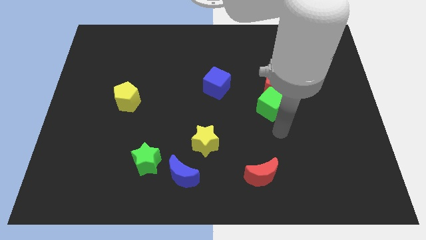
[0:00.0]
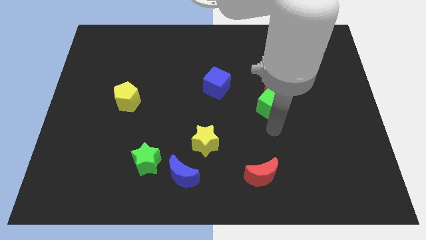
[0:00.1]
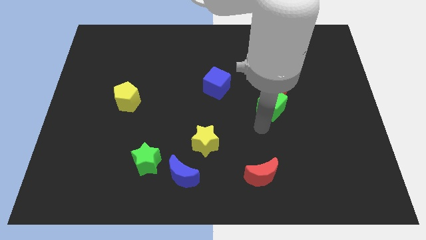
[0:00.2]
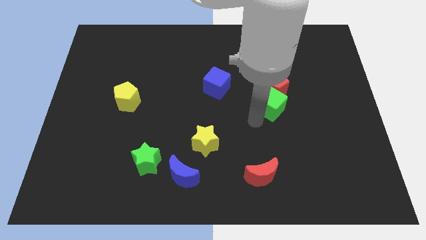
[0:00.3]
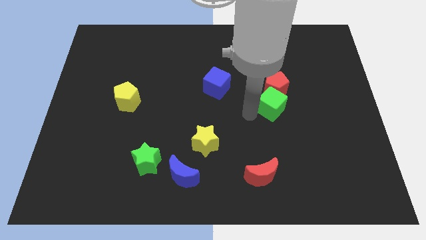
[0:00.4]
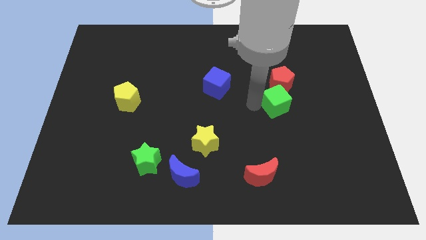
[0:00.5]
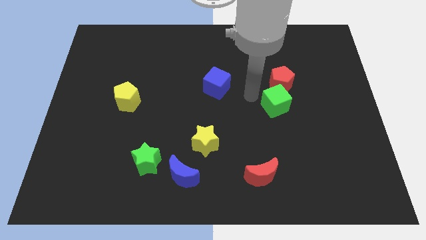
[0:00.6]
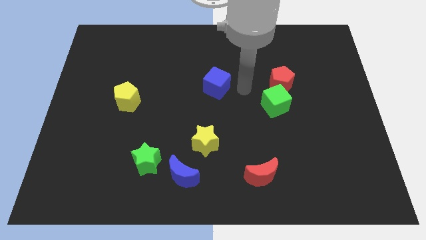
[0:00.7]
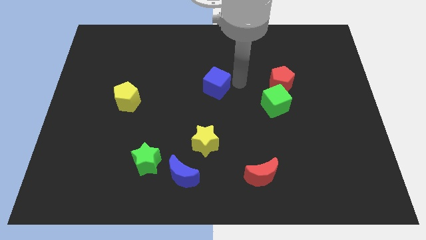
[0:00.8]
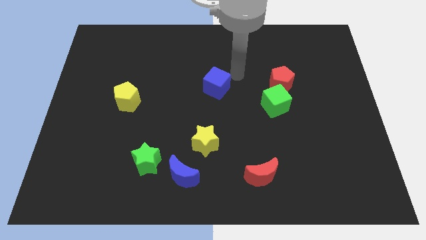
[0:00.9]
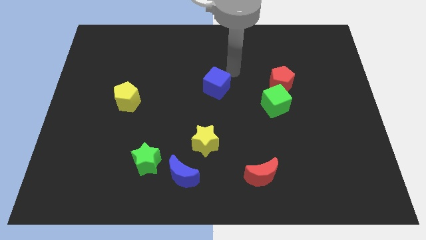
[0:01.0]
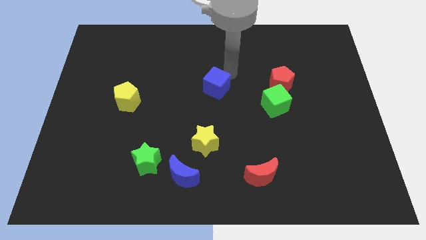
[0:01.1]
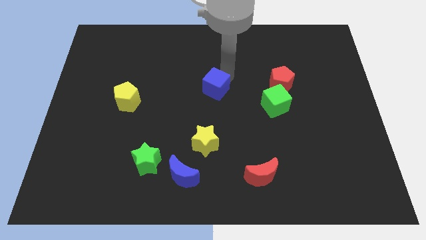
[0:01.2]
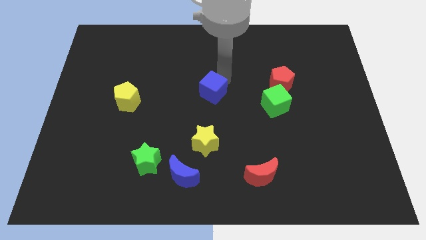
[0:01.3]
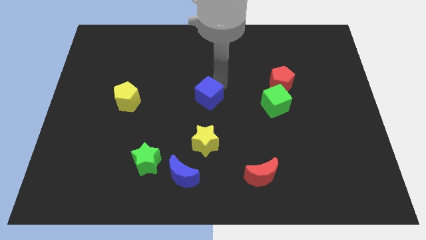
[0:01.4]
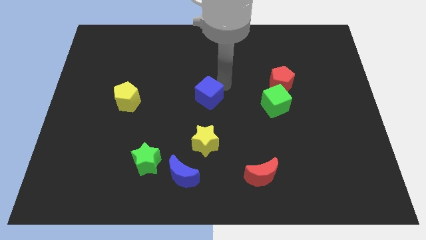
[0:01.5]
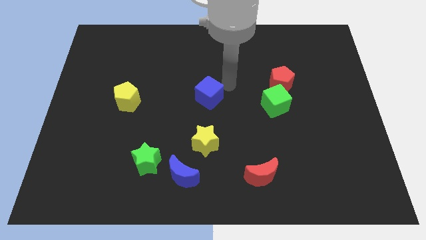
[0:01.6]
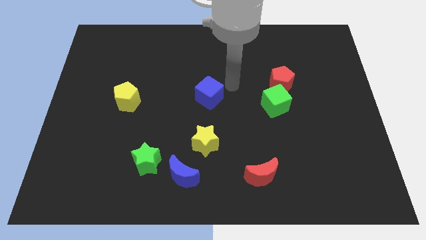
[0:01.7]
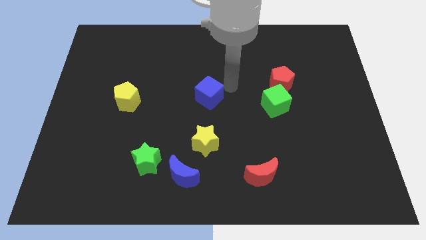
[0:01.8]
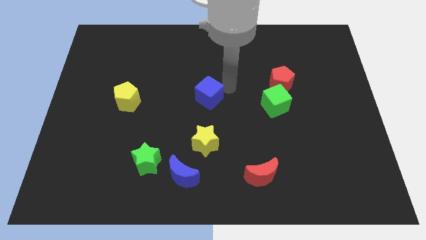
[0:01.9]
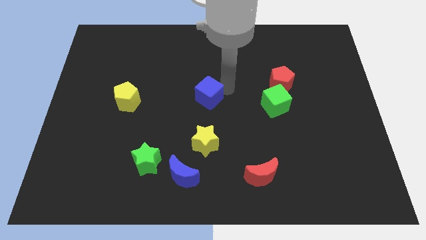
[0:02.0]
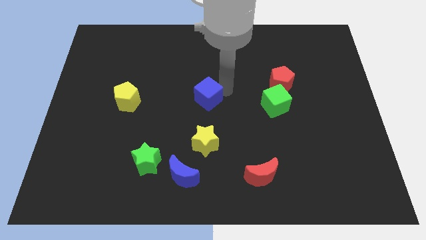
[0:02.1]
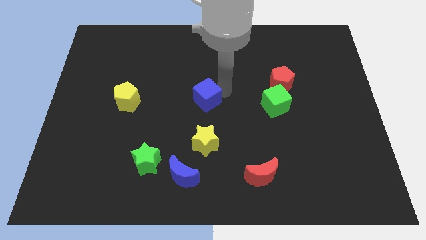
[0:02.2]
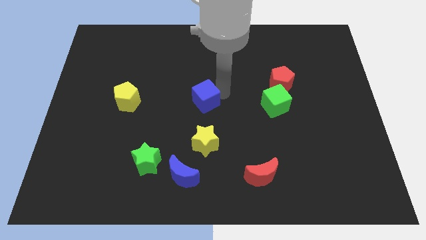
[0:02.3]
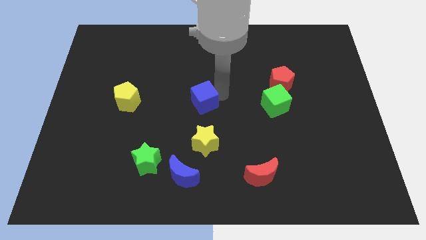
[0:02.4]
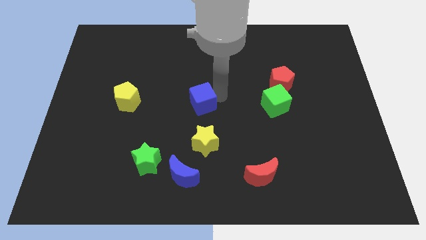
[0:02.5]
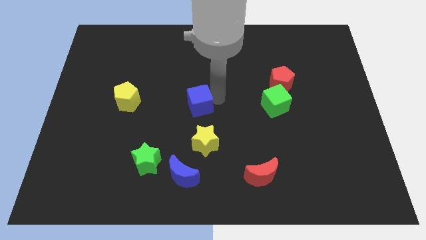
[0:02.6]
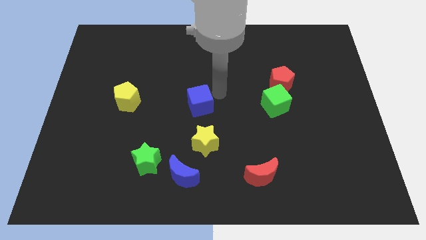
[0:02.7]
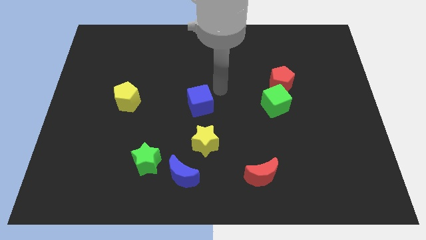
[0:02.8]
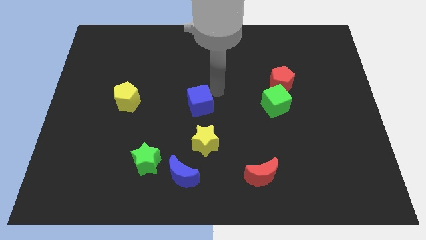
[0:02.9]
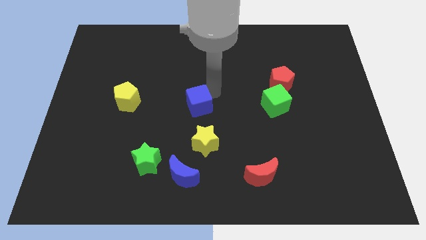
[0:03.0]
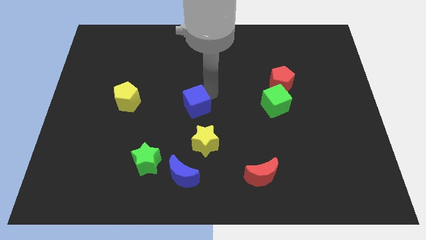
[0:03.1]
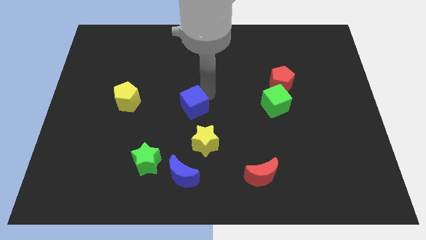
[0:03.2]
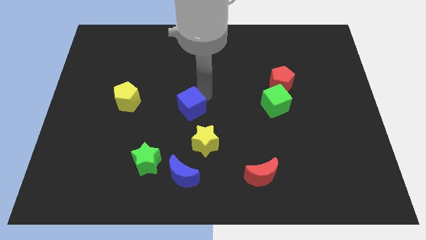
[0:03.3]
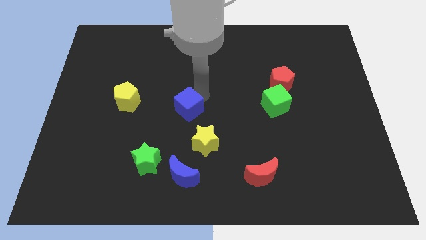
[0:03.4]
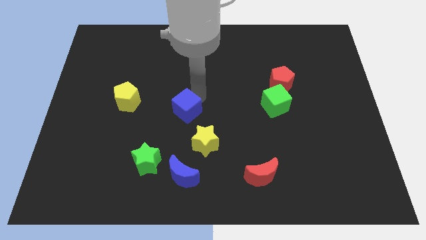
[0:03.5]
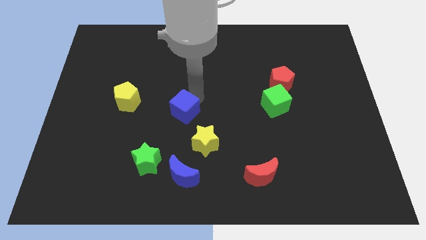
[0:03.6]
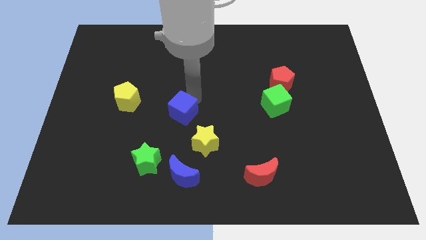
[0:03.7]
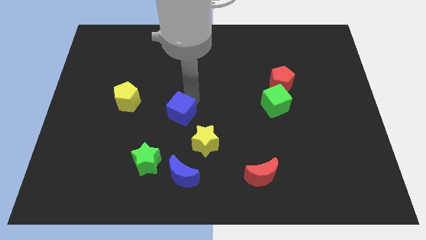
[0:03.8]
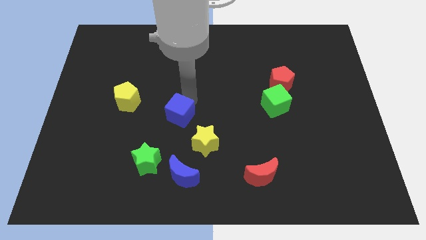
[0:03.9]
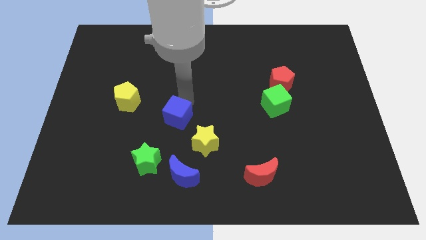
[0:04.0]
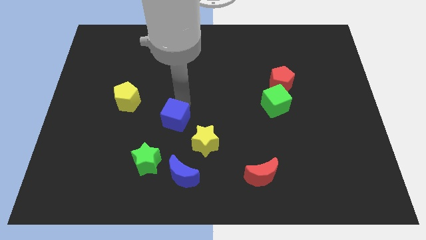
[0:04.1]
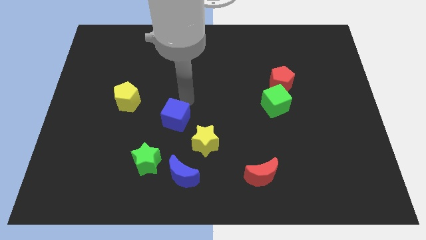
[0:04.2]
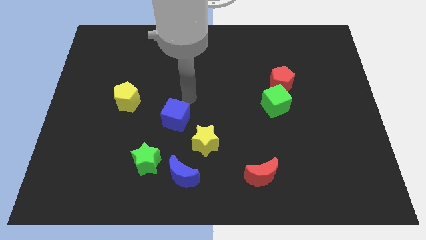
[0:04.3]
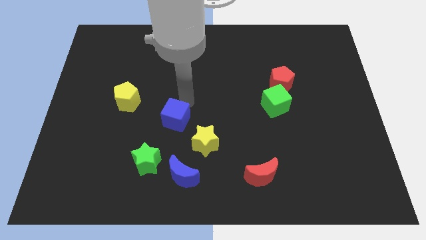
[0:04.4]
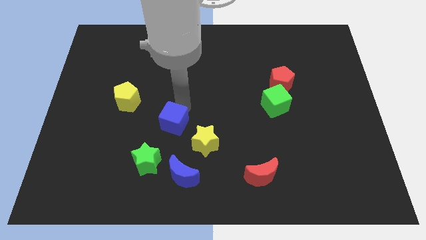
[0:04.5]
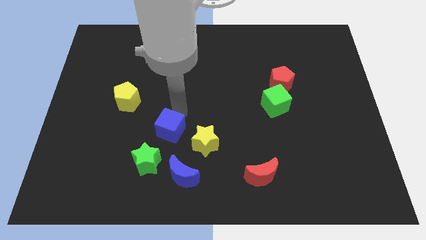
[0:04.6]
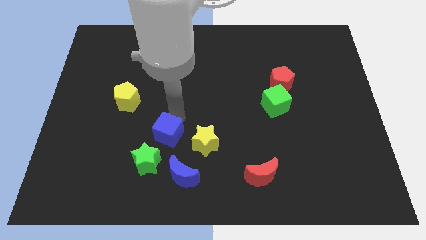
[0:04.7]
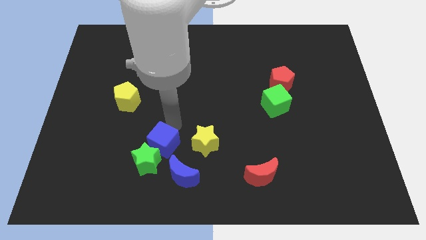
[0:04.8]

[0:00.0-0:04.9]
move the blue cube next to the green star

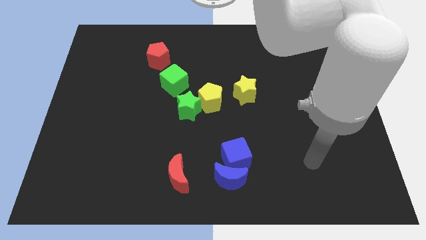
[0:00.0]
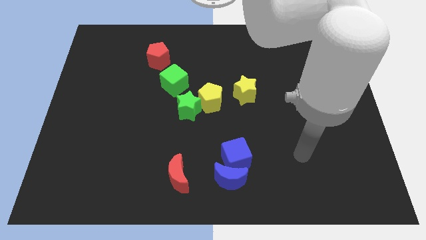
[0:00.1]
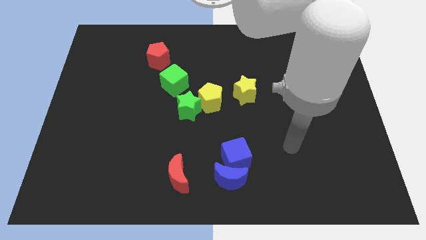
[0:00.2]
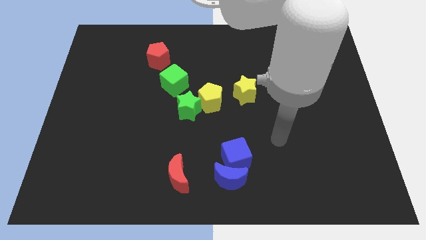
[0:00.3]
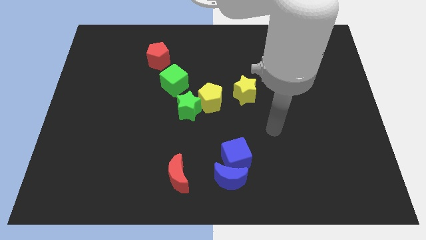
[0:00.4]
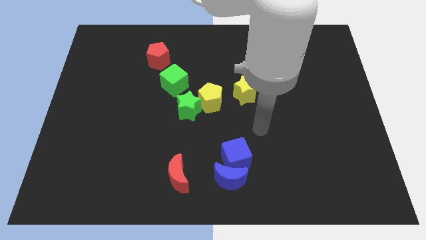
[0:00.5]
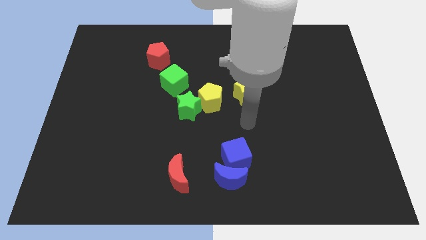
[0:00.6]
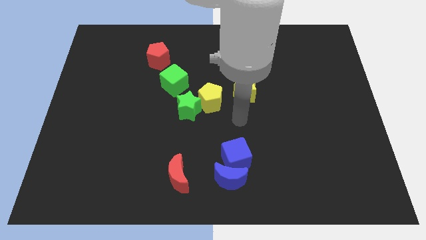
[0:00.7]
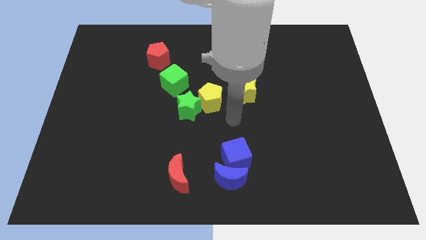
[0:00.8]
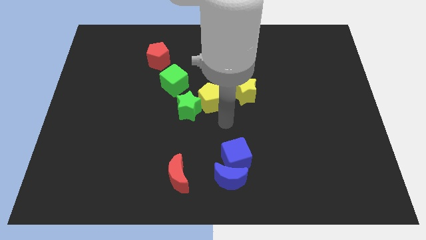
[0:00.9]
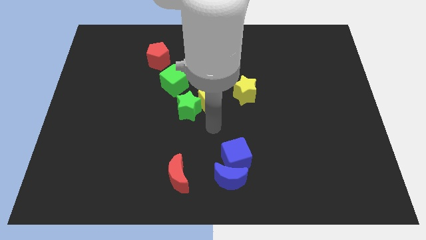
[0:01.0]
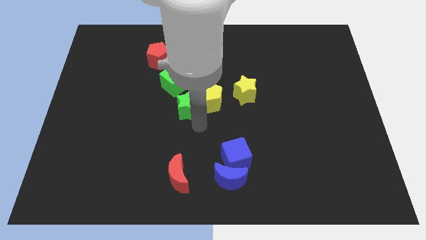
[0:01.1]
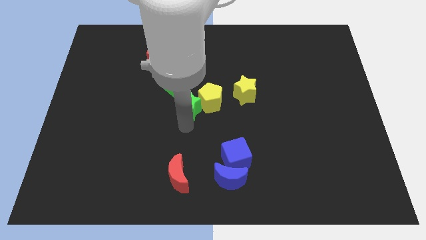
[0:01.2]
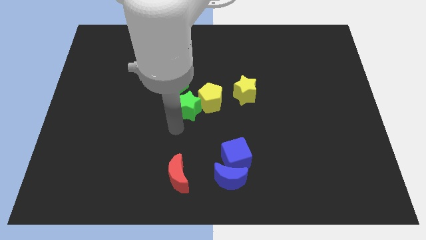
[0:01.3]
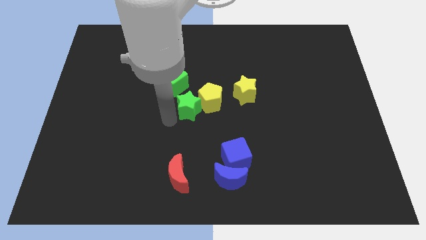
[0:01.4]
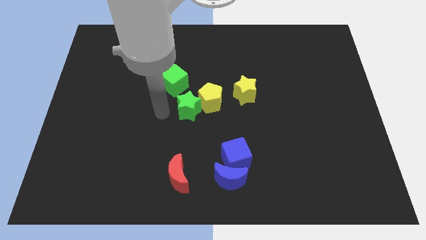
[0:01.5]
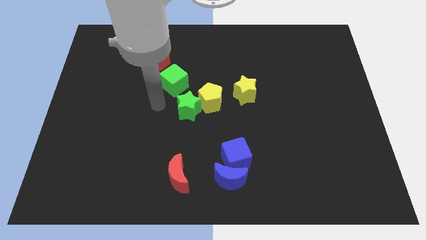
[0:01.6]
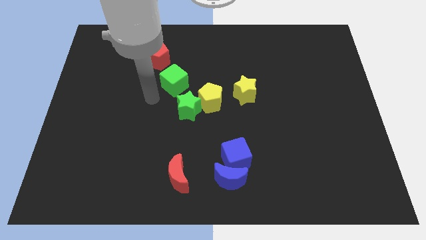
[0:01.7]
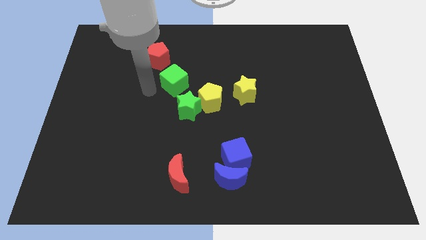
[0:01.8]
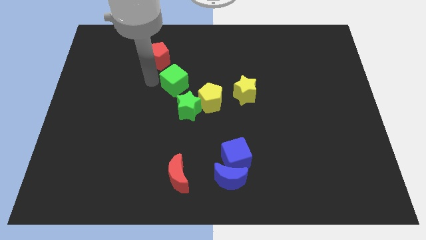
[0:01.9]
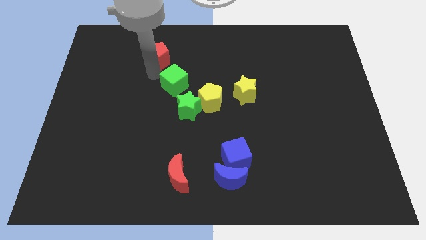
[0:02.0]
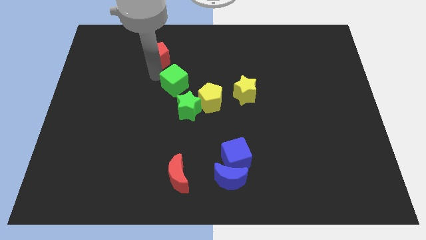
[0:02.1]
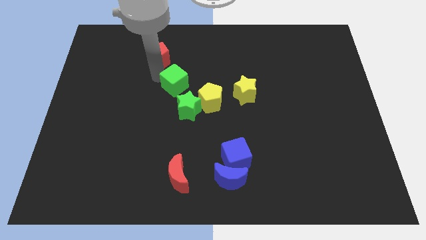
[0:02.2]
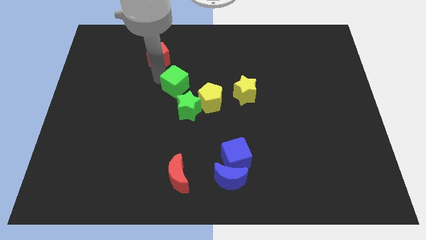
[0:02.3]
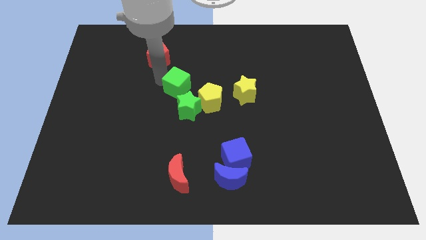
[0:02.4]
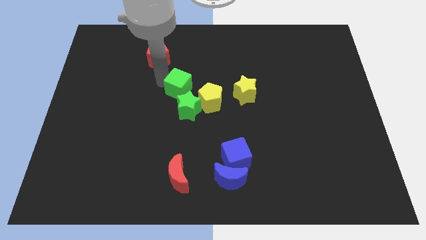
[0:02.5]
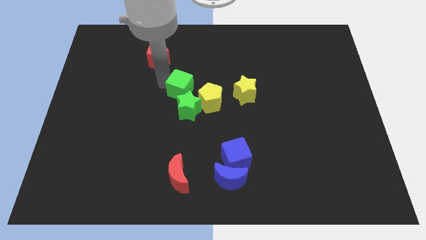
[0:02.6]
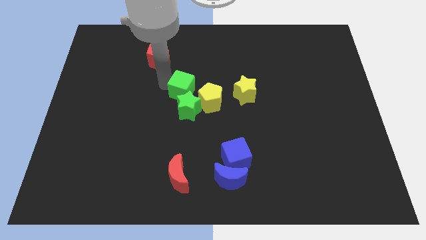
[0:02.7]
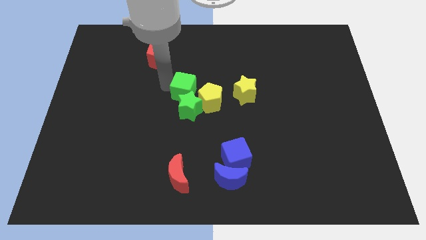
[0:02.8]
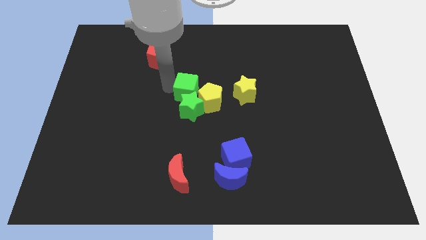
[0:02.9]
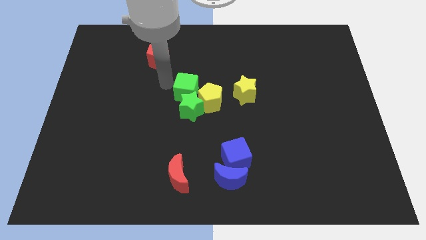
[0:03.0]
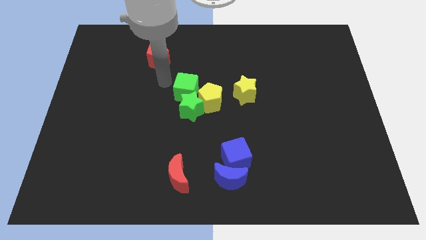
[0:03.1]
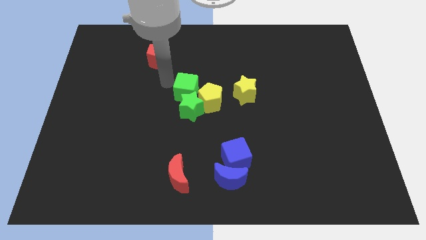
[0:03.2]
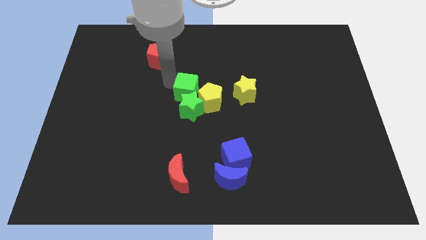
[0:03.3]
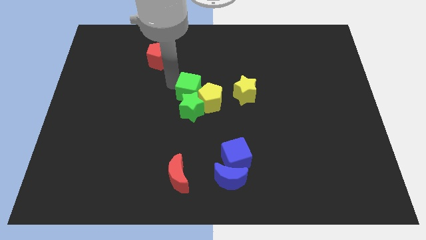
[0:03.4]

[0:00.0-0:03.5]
move the green cube to the yellow pentagon
